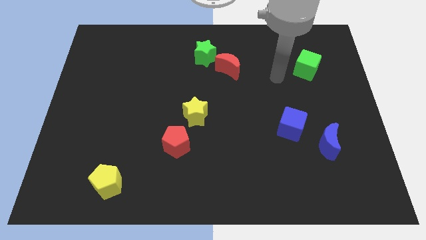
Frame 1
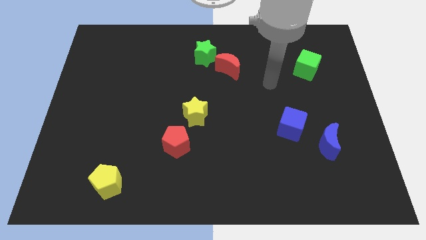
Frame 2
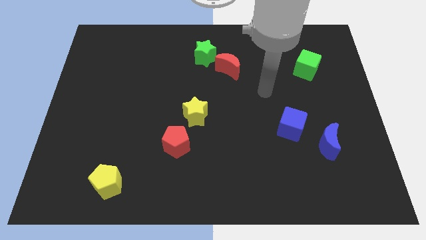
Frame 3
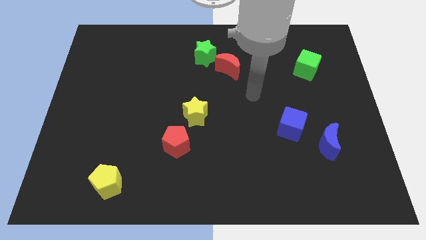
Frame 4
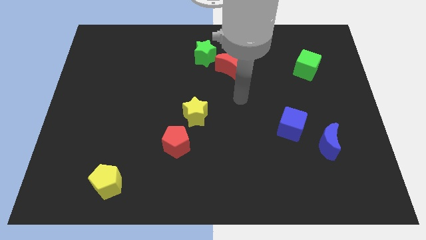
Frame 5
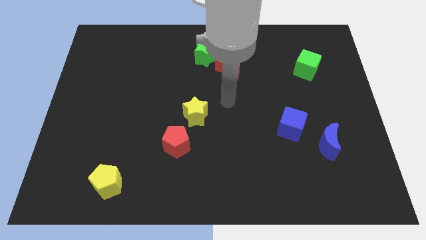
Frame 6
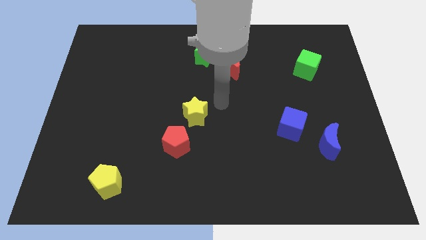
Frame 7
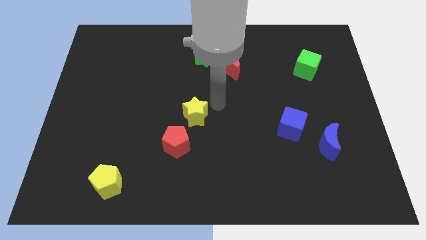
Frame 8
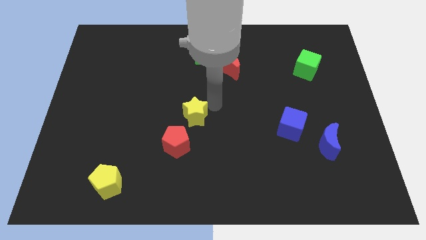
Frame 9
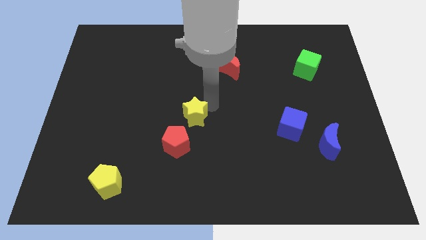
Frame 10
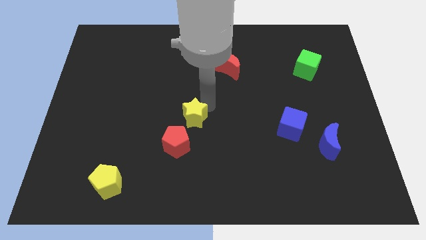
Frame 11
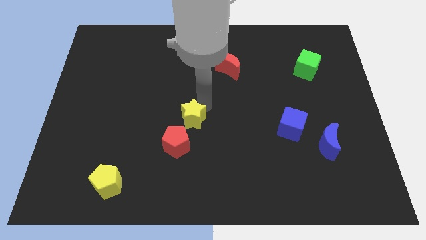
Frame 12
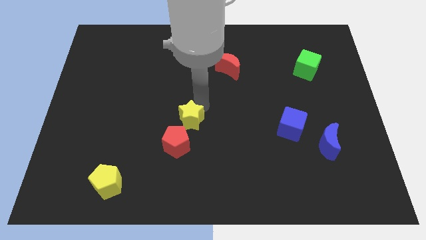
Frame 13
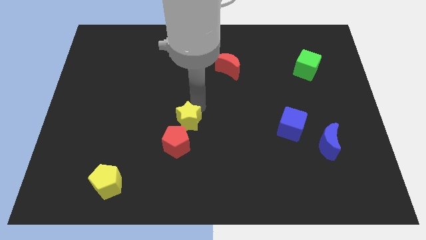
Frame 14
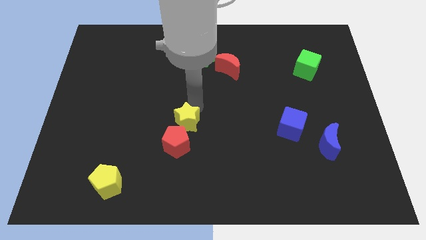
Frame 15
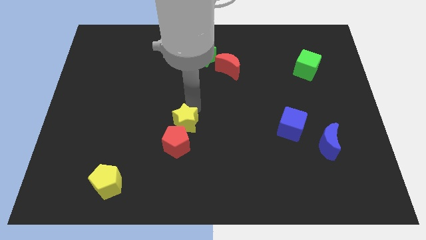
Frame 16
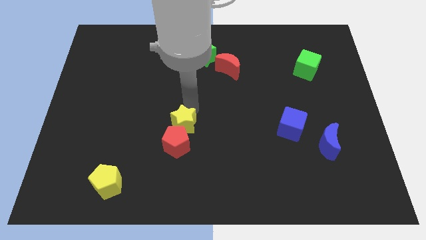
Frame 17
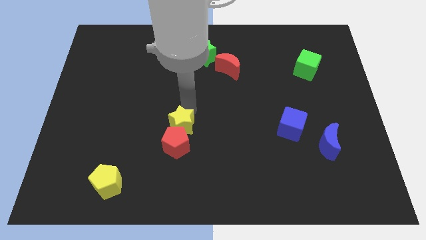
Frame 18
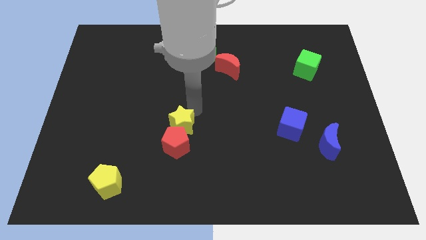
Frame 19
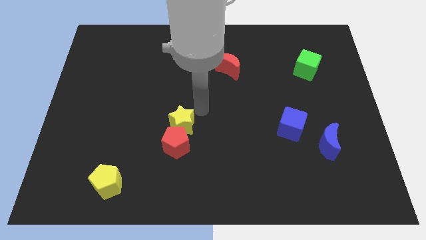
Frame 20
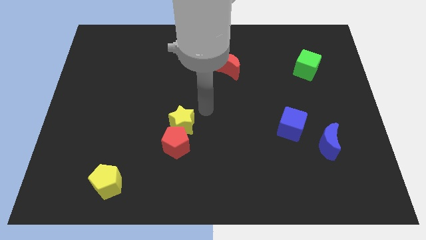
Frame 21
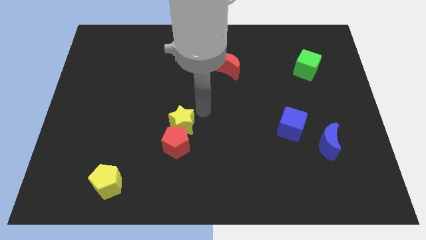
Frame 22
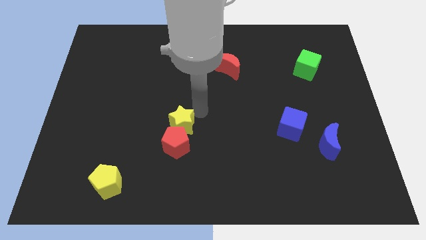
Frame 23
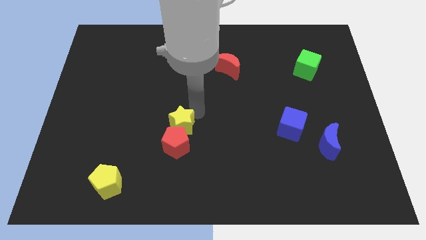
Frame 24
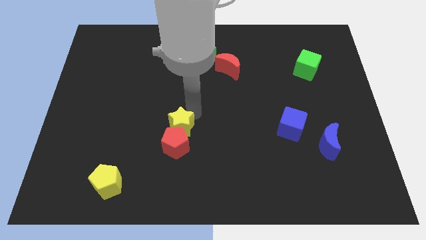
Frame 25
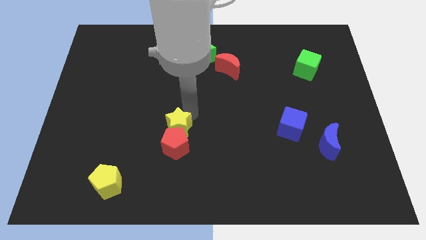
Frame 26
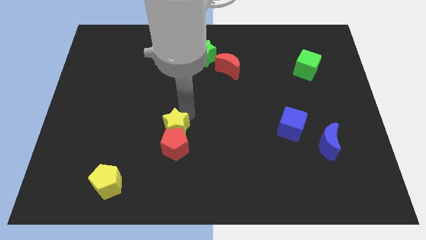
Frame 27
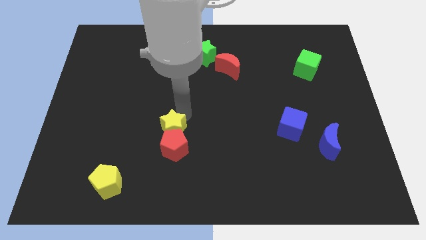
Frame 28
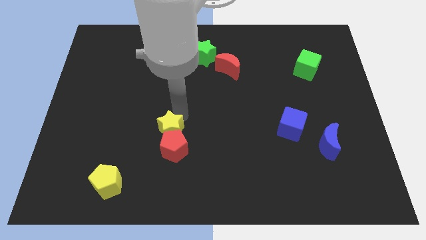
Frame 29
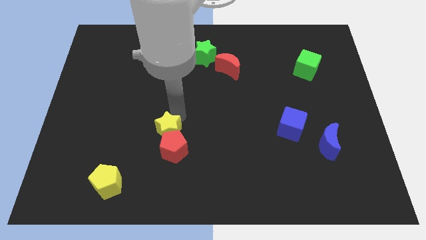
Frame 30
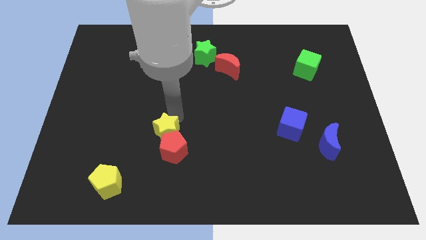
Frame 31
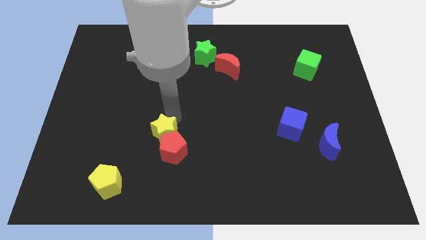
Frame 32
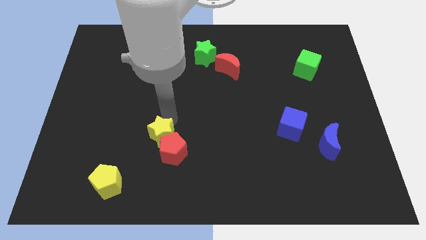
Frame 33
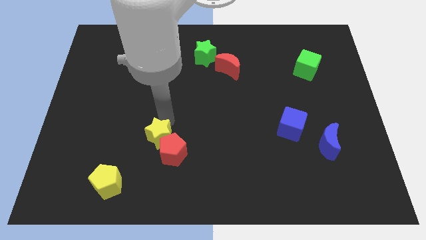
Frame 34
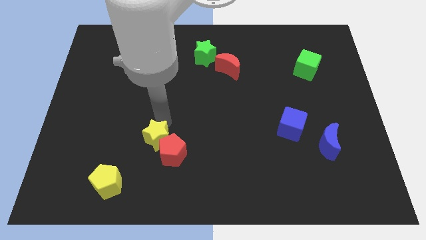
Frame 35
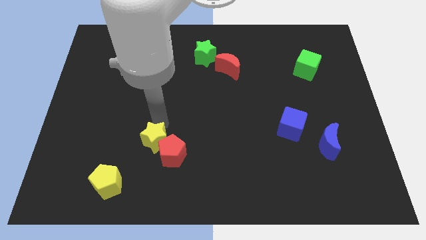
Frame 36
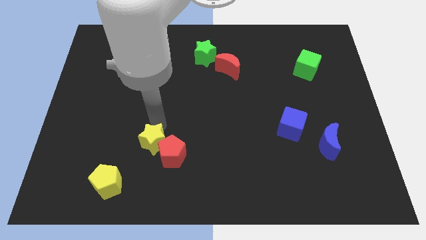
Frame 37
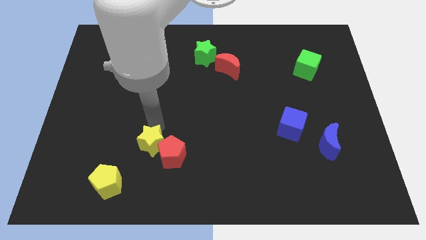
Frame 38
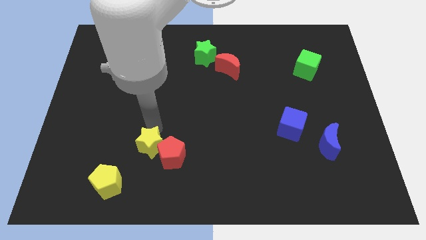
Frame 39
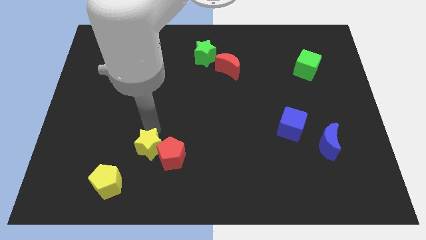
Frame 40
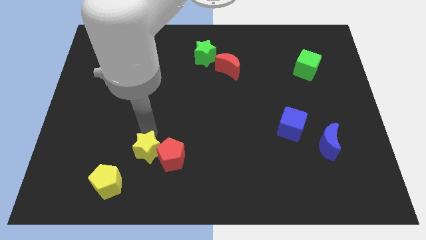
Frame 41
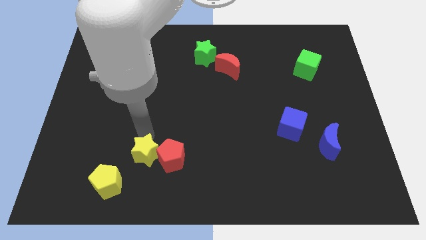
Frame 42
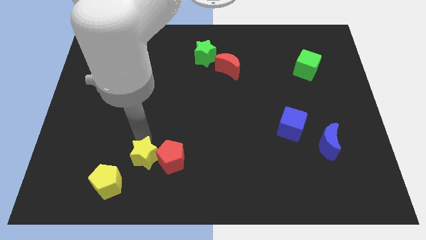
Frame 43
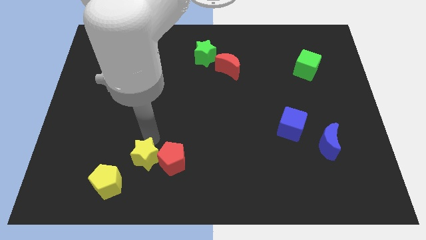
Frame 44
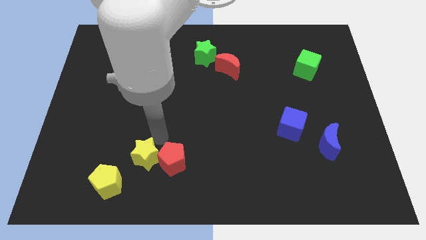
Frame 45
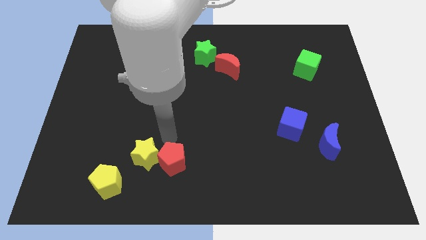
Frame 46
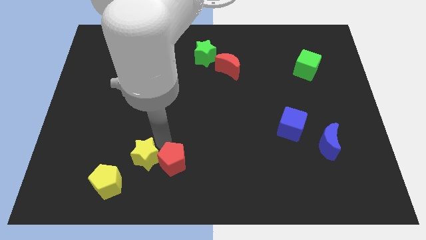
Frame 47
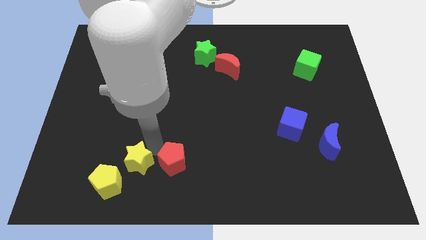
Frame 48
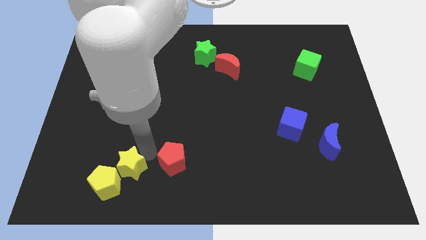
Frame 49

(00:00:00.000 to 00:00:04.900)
put the yellow star towards the yellow pentagon

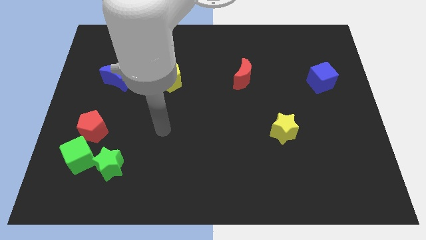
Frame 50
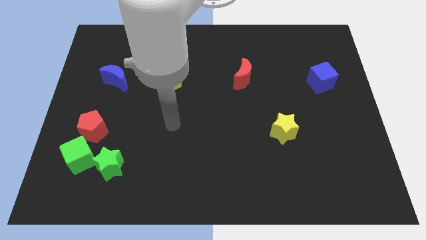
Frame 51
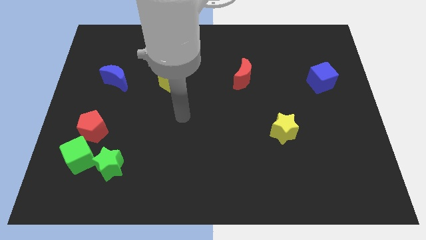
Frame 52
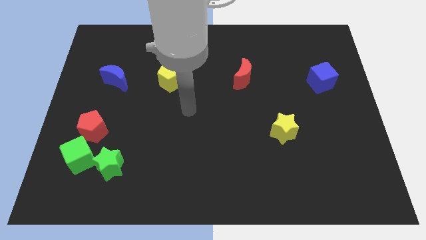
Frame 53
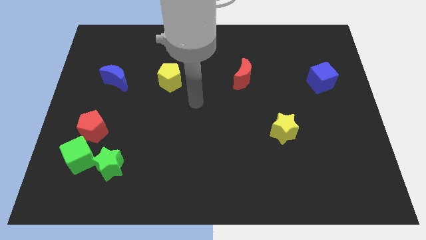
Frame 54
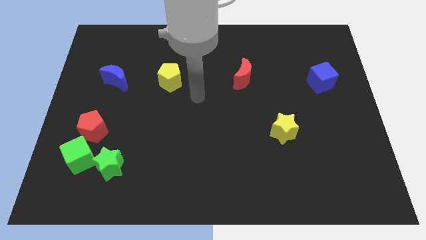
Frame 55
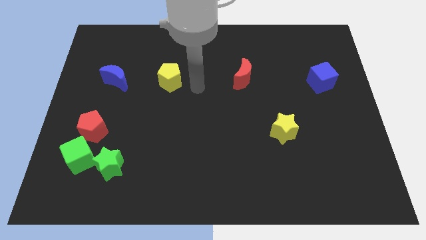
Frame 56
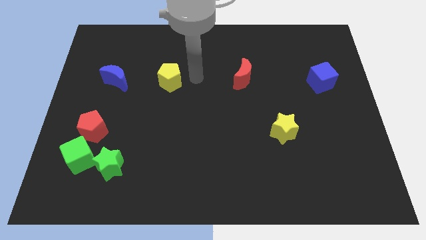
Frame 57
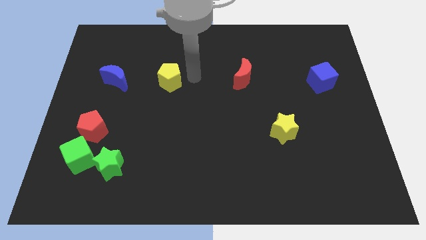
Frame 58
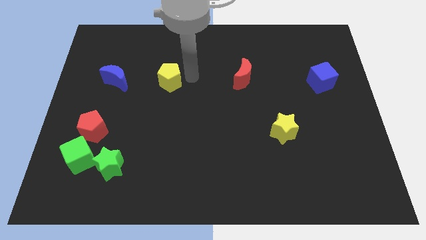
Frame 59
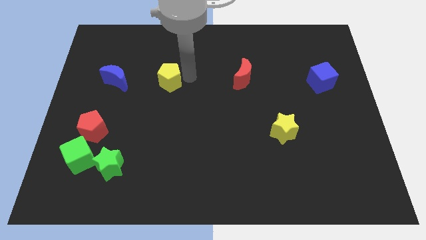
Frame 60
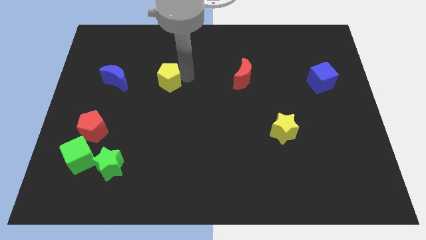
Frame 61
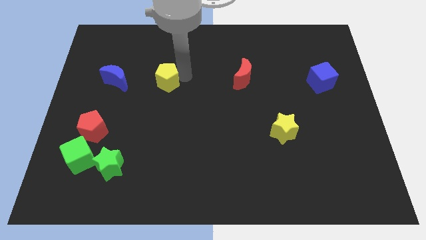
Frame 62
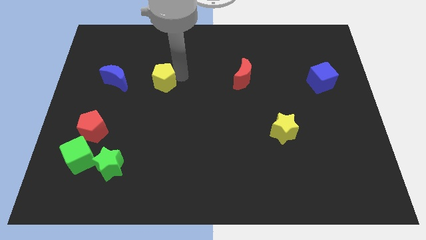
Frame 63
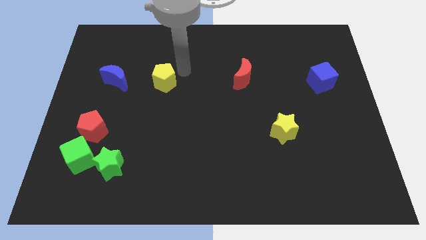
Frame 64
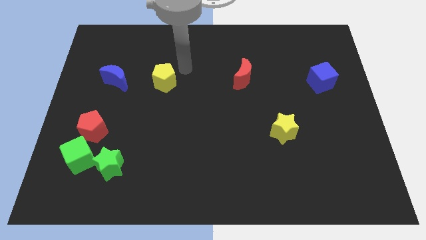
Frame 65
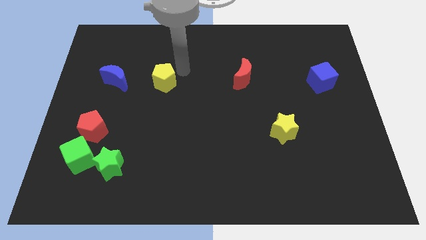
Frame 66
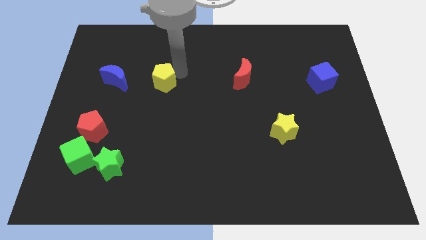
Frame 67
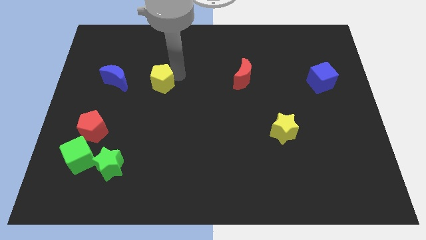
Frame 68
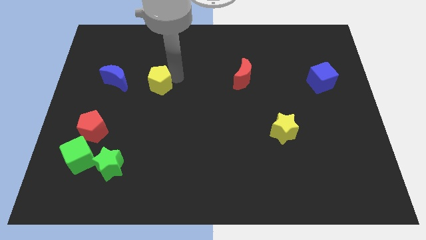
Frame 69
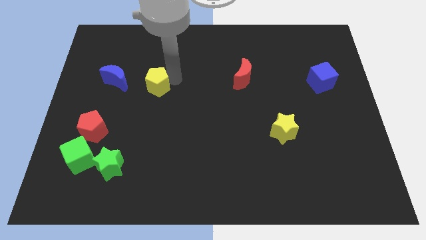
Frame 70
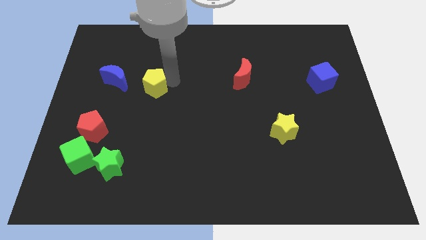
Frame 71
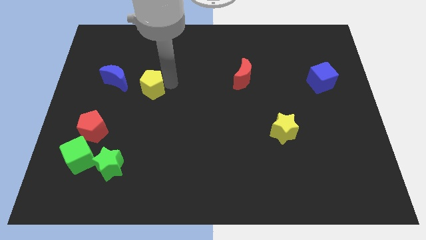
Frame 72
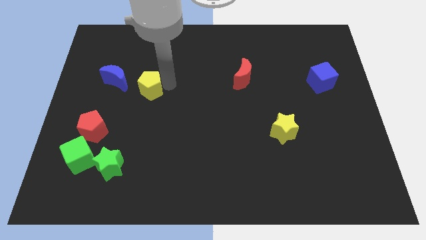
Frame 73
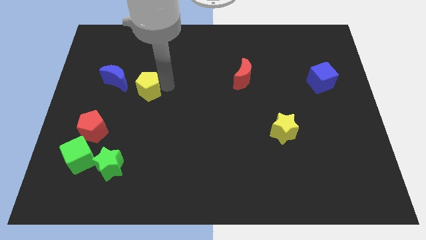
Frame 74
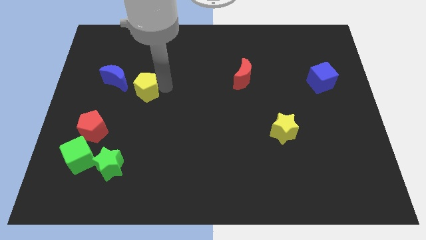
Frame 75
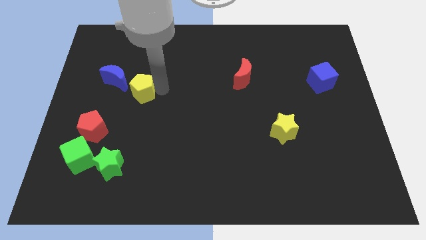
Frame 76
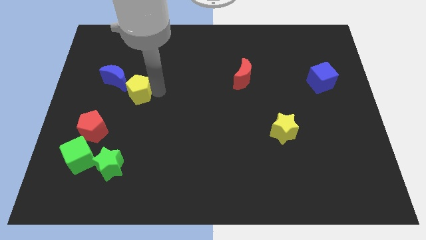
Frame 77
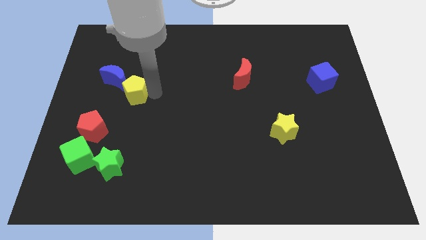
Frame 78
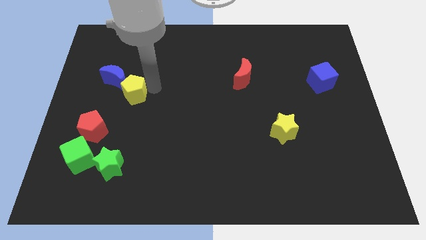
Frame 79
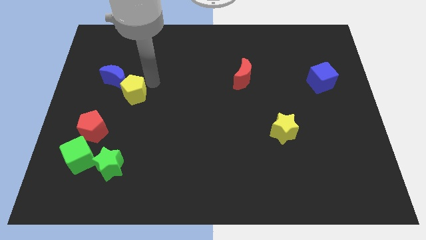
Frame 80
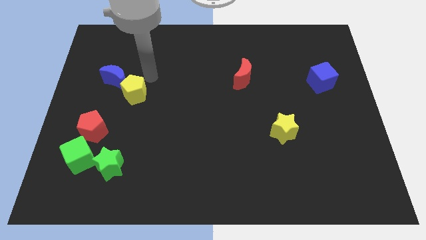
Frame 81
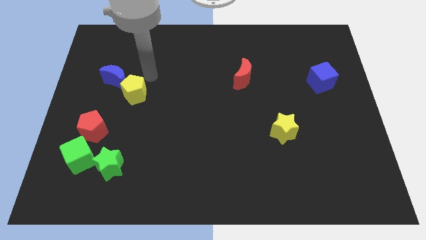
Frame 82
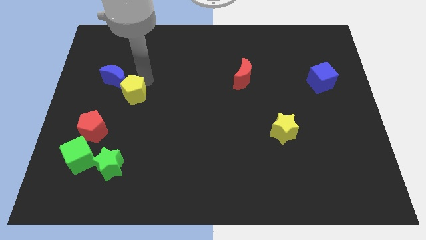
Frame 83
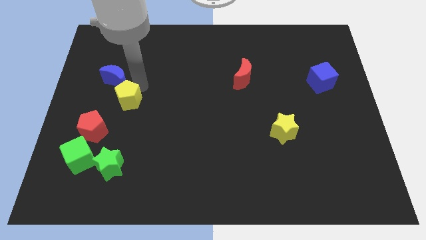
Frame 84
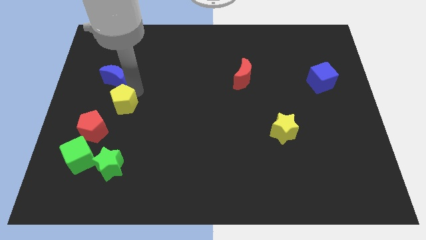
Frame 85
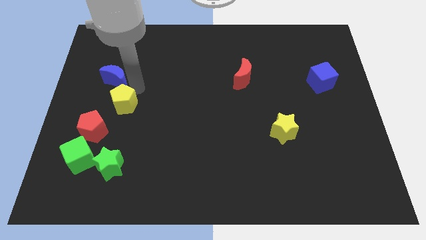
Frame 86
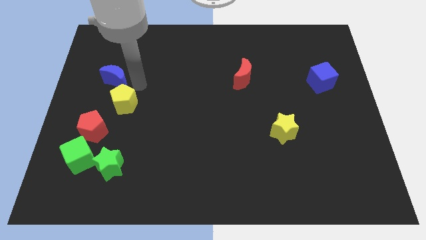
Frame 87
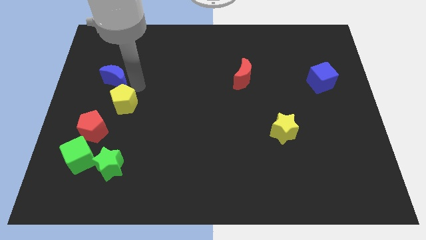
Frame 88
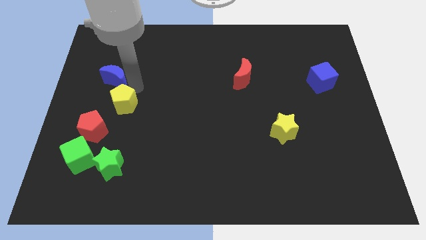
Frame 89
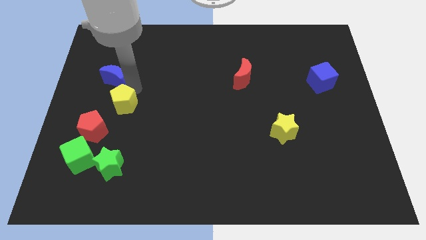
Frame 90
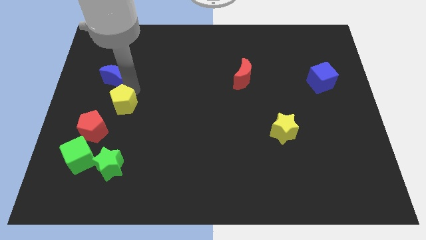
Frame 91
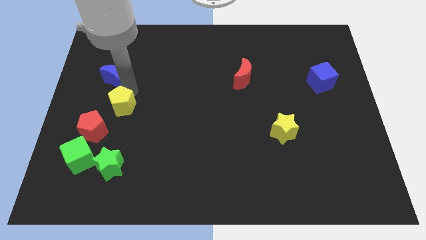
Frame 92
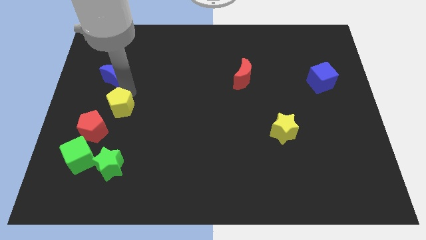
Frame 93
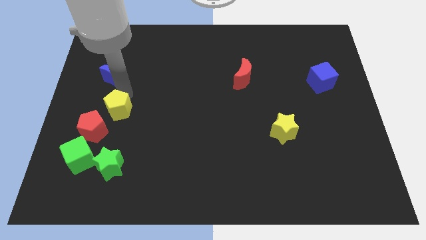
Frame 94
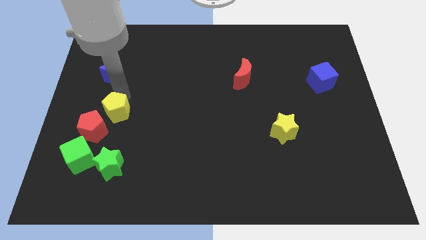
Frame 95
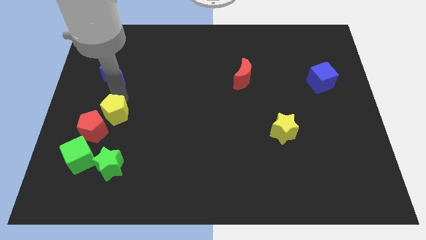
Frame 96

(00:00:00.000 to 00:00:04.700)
slide the yellow pentagon close to the red pentagon
